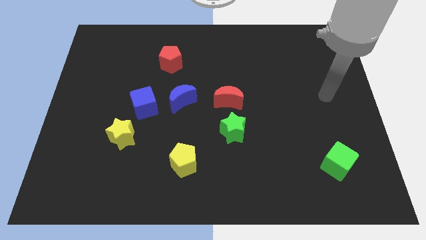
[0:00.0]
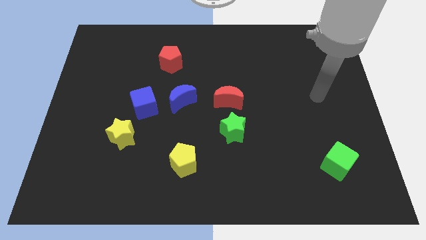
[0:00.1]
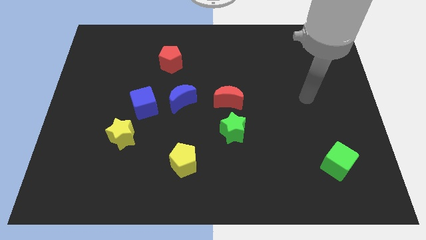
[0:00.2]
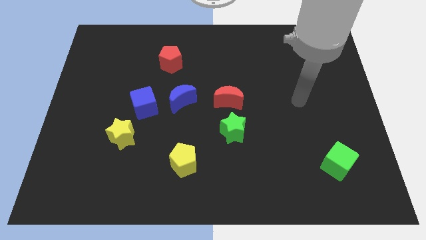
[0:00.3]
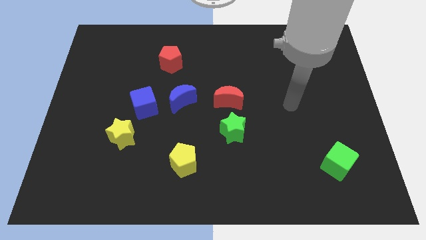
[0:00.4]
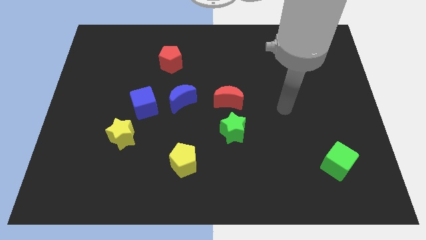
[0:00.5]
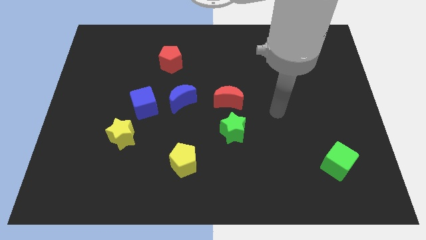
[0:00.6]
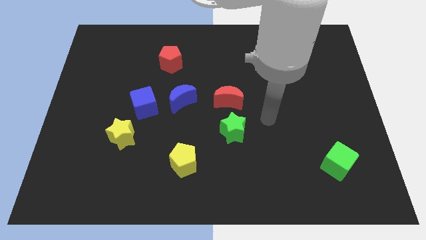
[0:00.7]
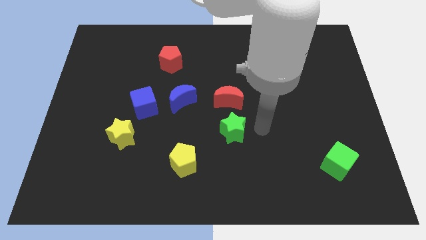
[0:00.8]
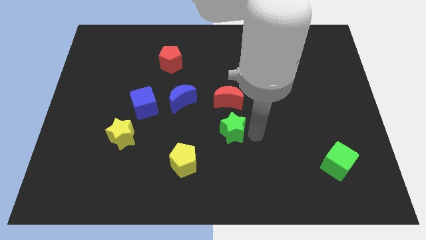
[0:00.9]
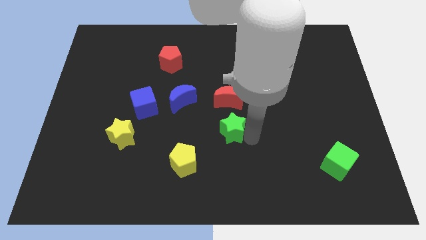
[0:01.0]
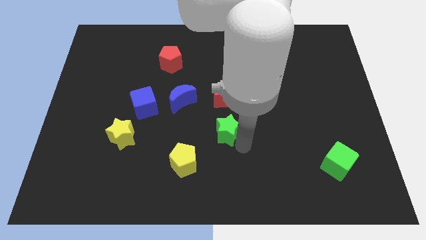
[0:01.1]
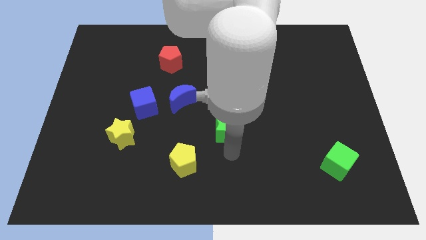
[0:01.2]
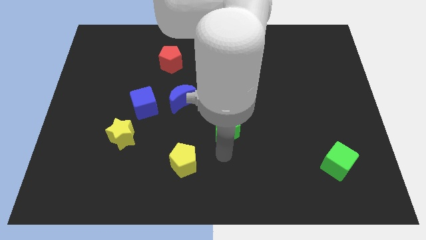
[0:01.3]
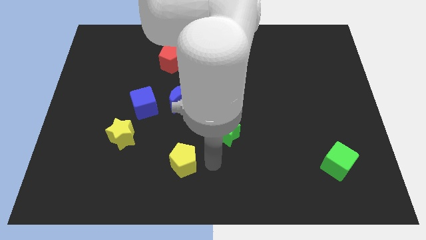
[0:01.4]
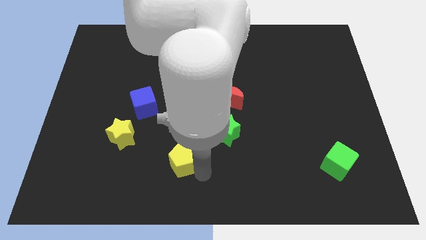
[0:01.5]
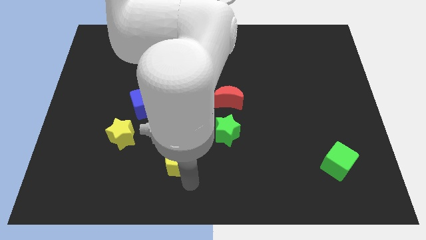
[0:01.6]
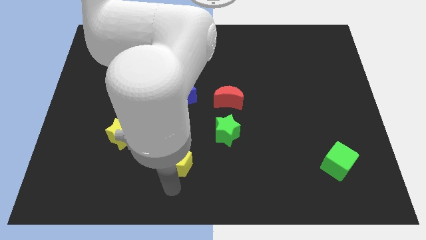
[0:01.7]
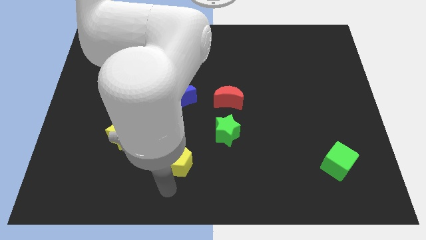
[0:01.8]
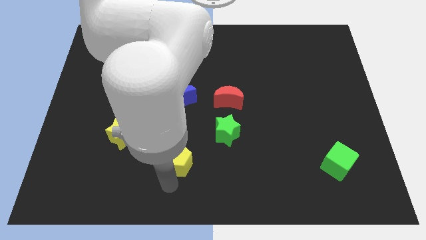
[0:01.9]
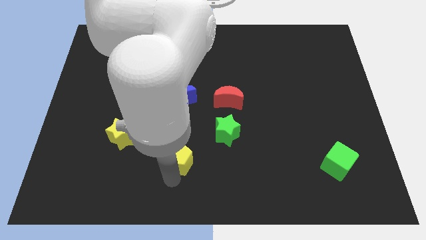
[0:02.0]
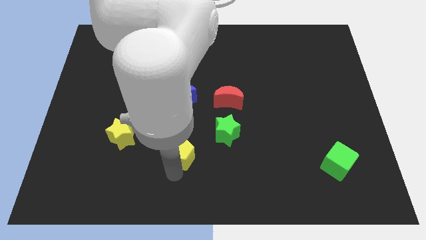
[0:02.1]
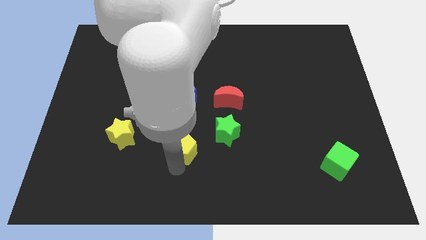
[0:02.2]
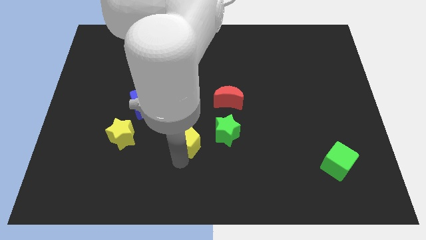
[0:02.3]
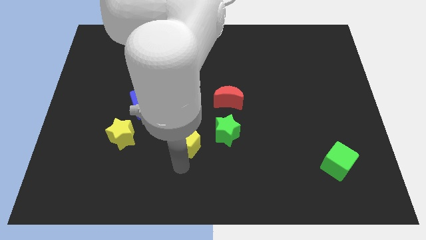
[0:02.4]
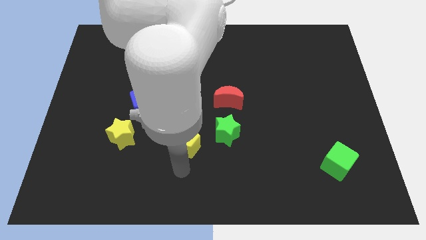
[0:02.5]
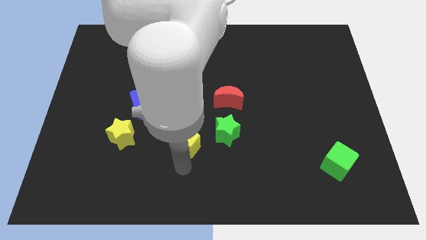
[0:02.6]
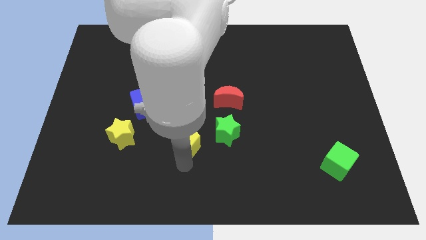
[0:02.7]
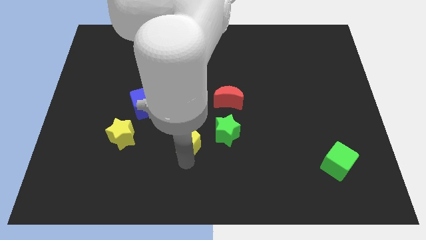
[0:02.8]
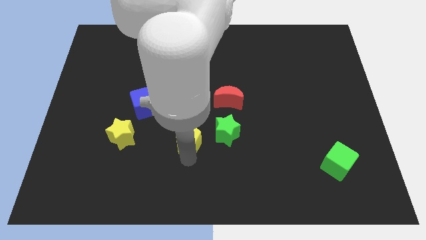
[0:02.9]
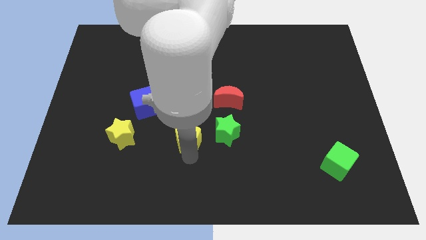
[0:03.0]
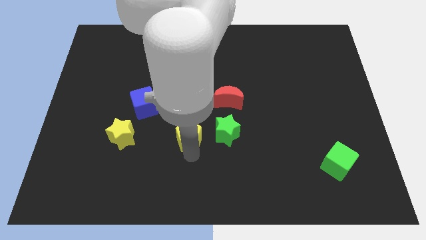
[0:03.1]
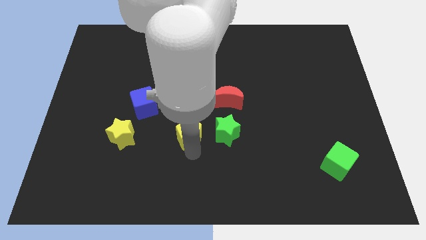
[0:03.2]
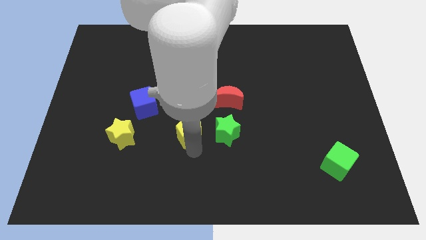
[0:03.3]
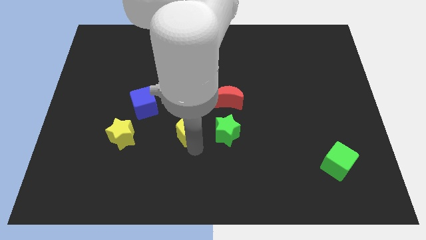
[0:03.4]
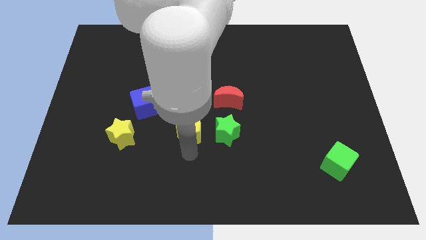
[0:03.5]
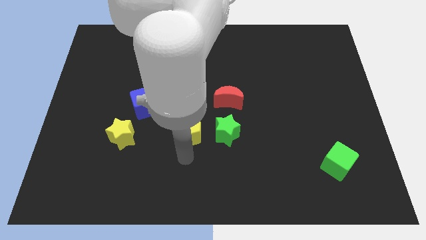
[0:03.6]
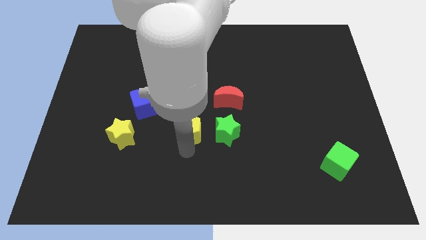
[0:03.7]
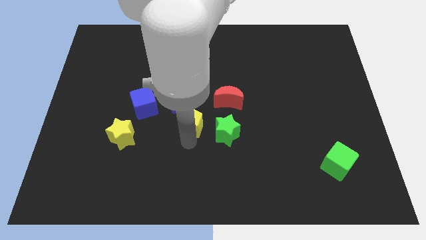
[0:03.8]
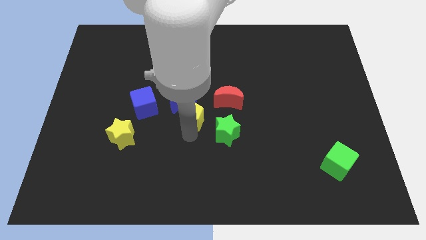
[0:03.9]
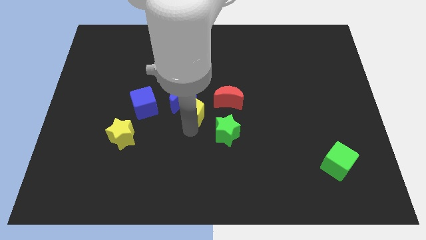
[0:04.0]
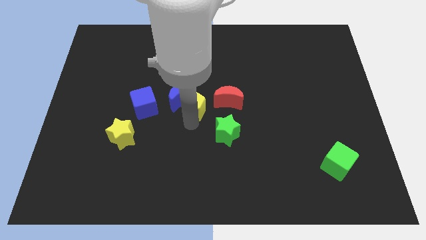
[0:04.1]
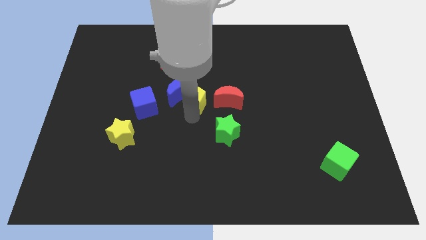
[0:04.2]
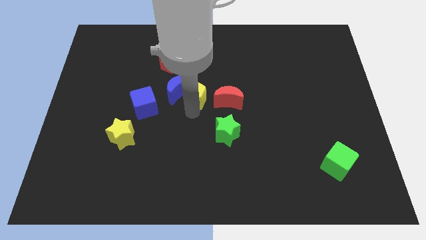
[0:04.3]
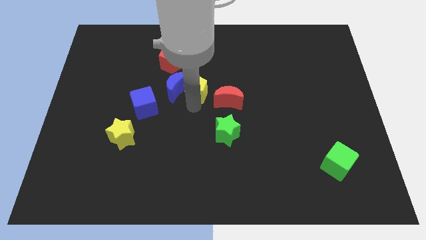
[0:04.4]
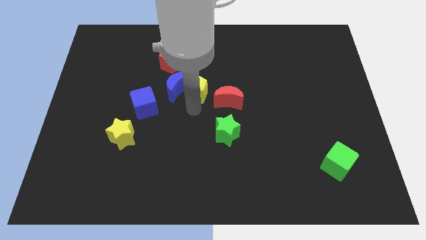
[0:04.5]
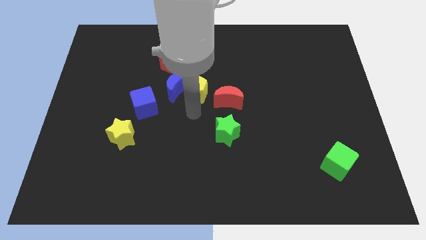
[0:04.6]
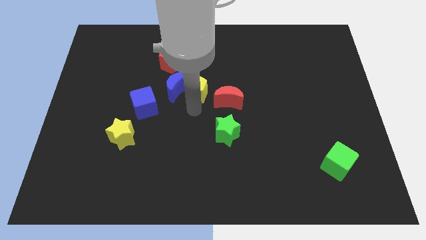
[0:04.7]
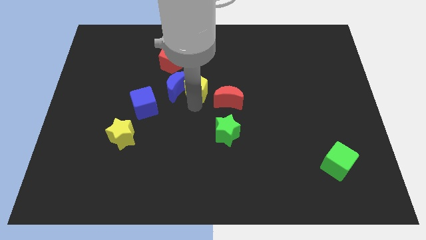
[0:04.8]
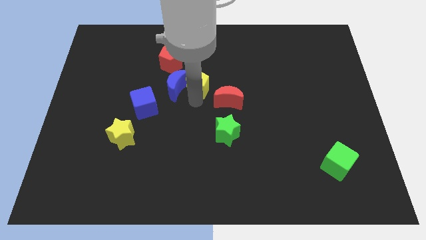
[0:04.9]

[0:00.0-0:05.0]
push the yellow pentagon upwards

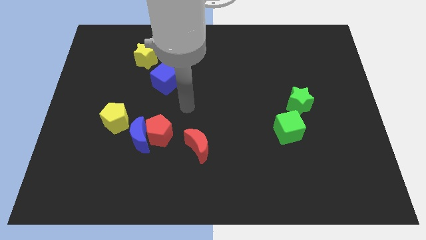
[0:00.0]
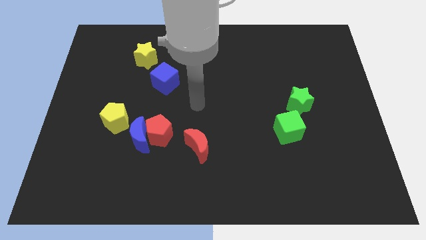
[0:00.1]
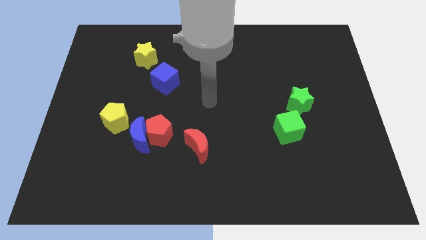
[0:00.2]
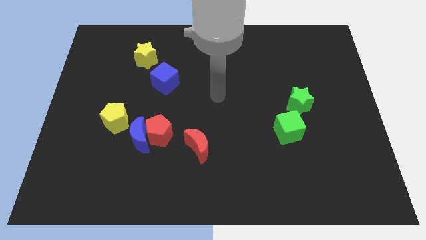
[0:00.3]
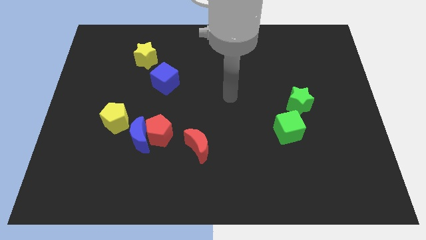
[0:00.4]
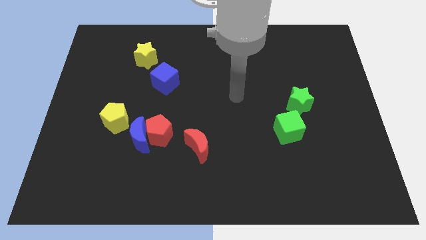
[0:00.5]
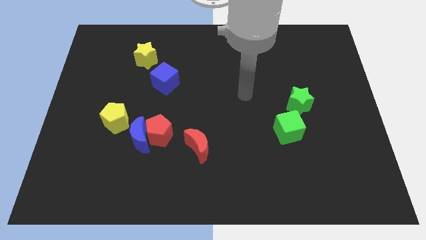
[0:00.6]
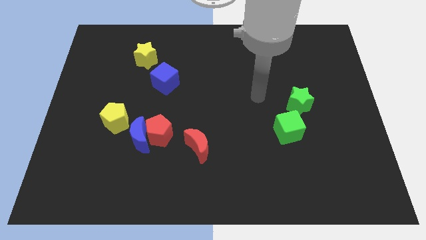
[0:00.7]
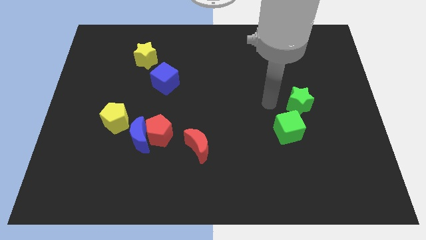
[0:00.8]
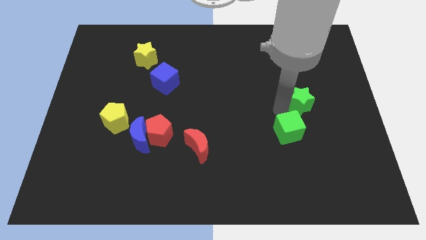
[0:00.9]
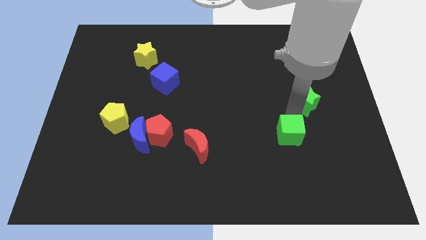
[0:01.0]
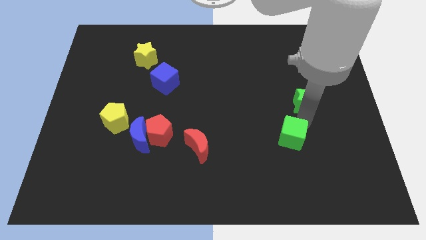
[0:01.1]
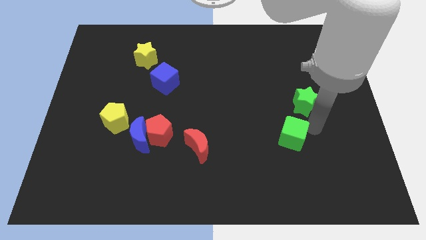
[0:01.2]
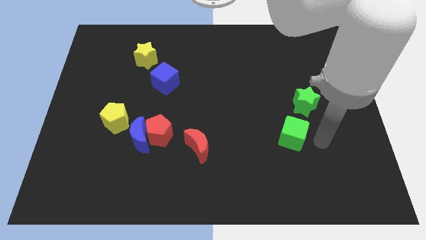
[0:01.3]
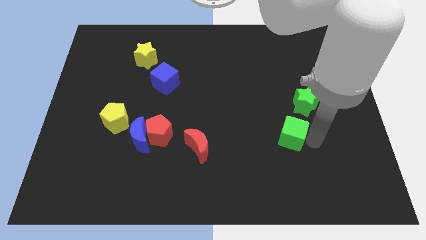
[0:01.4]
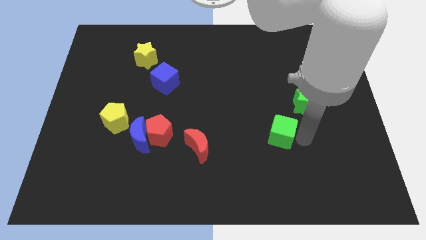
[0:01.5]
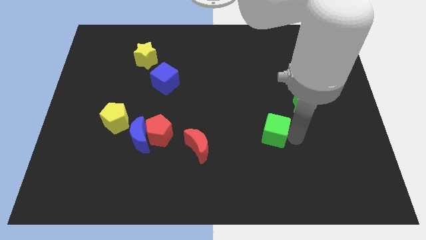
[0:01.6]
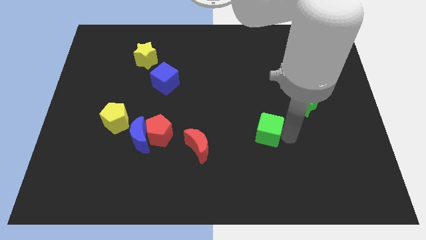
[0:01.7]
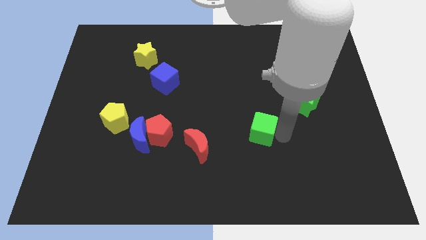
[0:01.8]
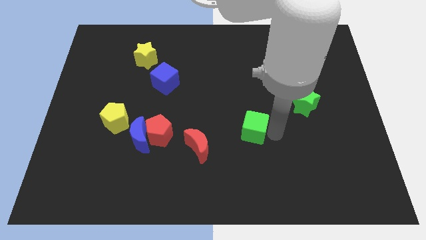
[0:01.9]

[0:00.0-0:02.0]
slide the green cube to the left a bit

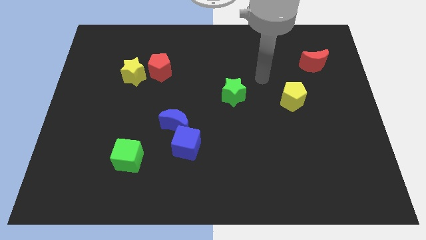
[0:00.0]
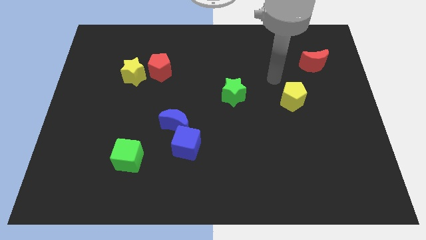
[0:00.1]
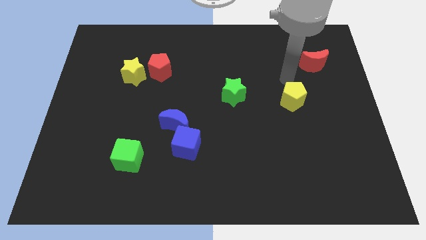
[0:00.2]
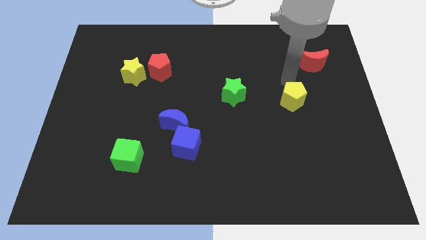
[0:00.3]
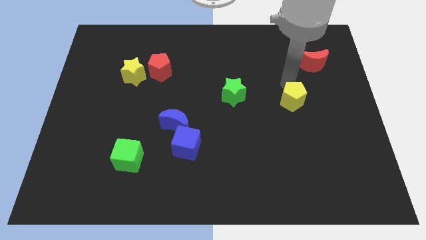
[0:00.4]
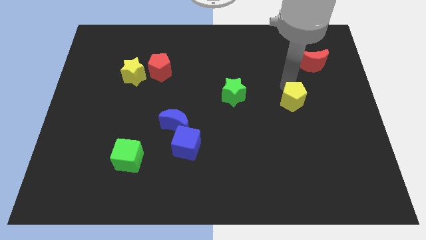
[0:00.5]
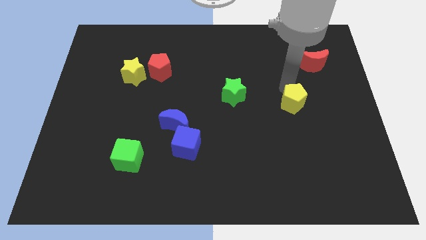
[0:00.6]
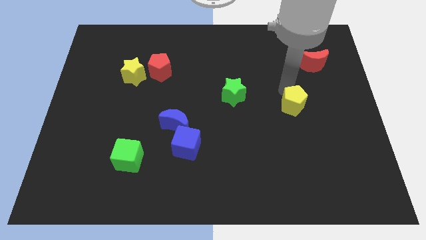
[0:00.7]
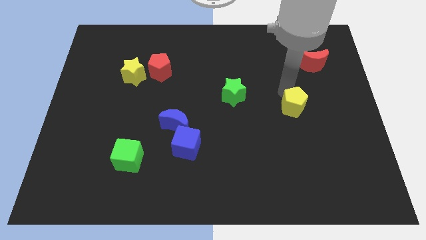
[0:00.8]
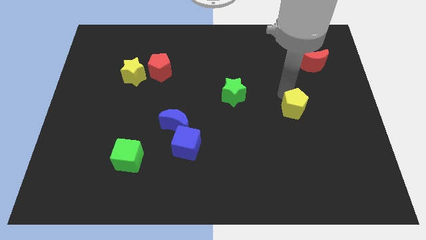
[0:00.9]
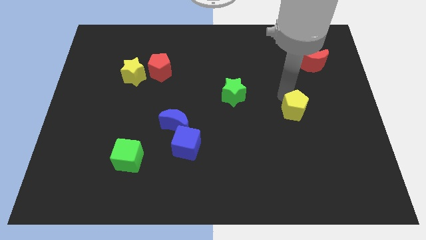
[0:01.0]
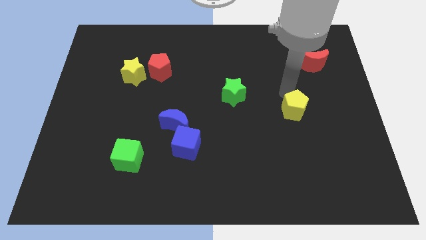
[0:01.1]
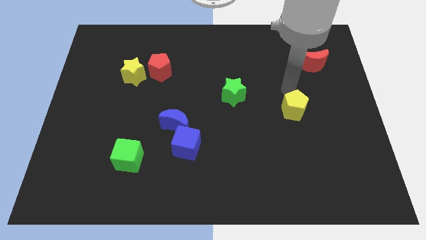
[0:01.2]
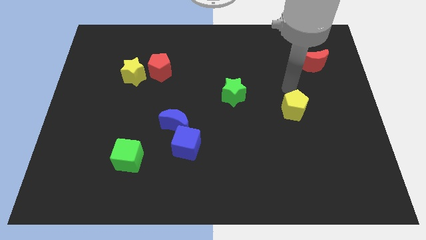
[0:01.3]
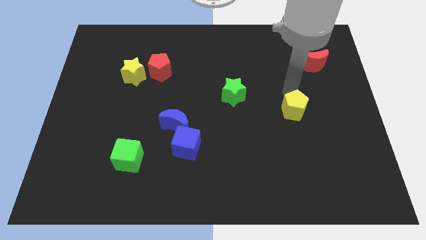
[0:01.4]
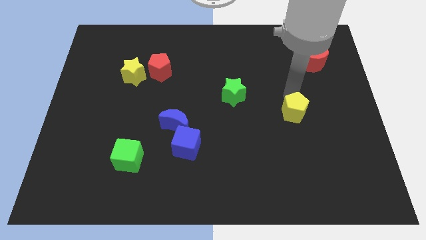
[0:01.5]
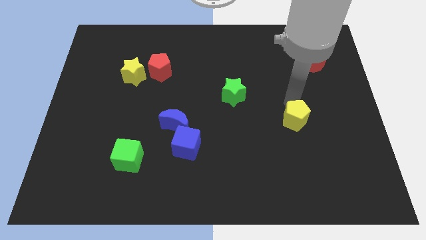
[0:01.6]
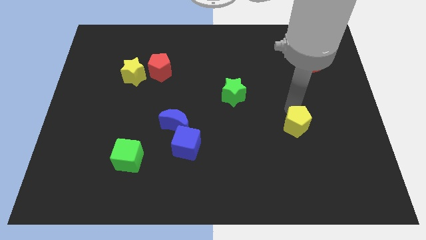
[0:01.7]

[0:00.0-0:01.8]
move the yellow pentagon downwards a little bit
